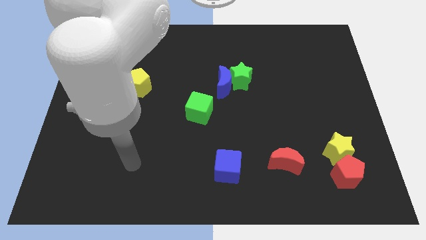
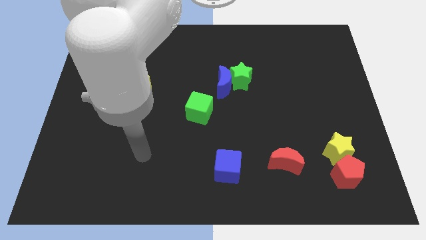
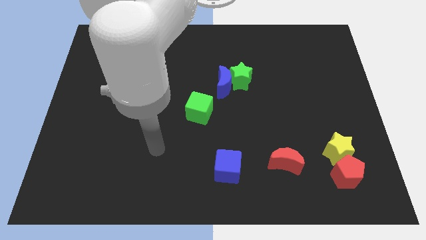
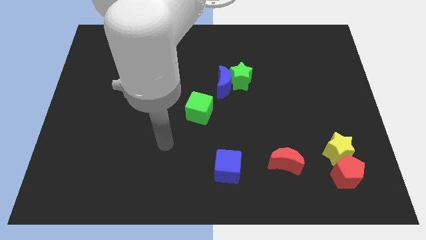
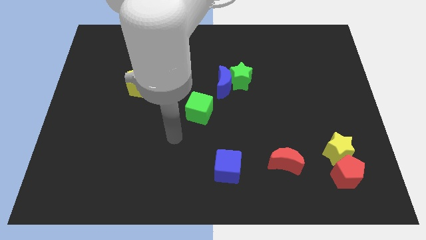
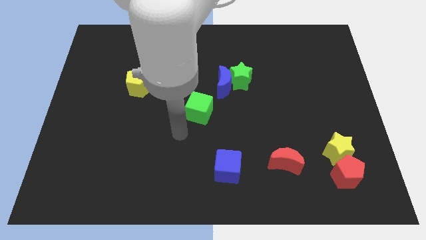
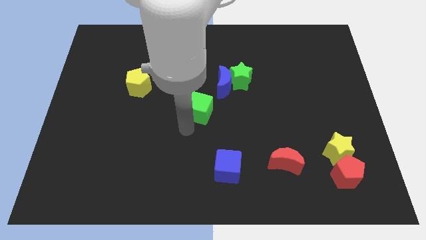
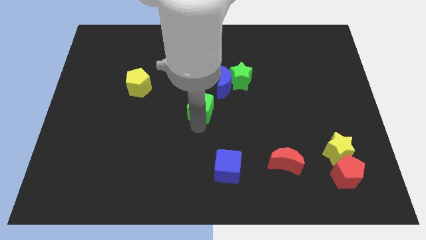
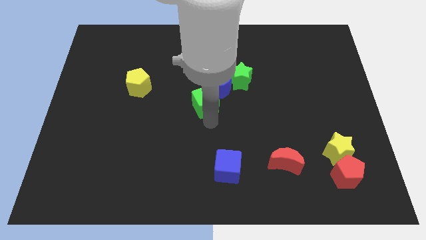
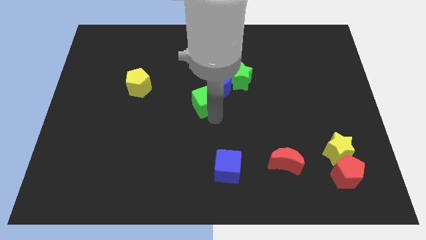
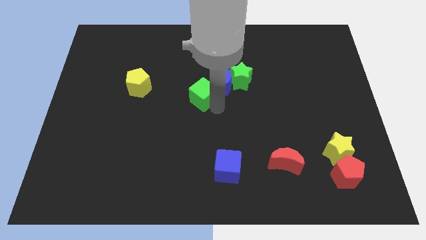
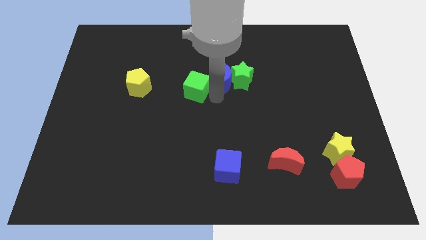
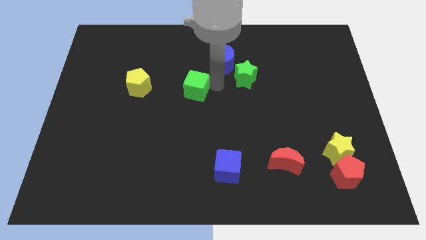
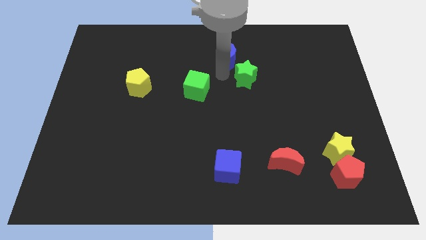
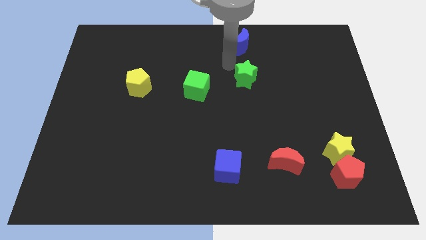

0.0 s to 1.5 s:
separate the green star from the blue moon

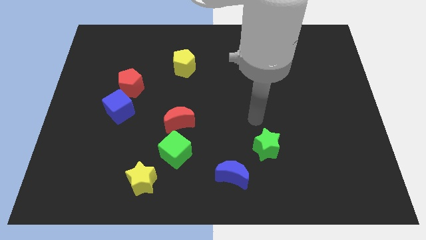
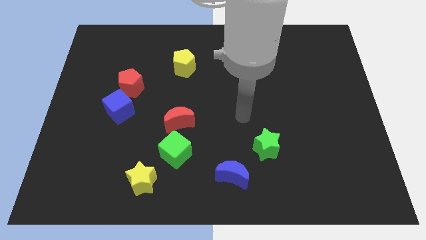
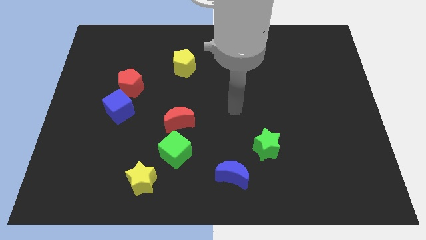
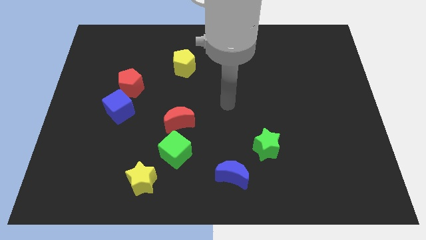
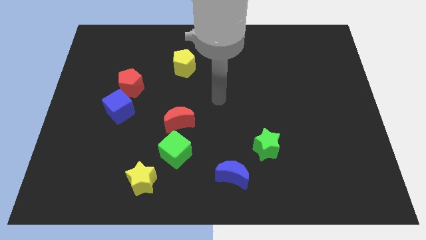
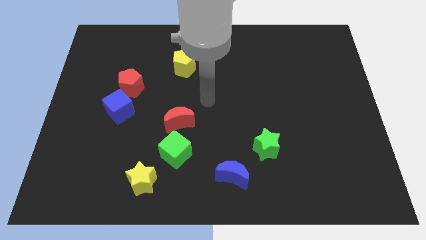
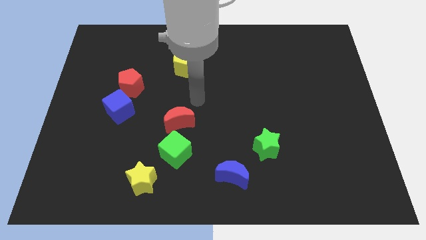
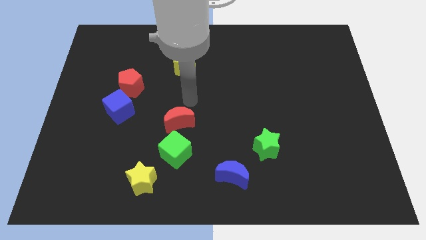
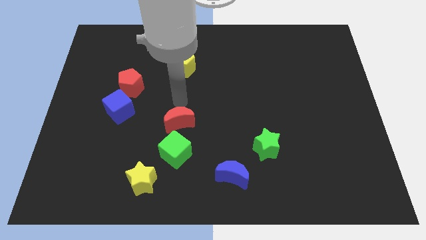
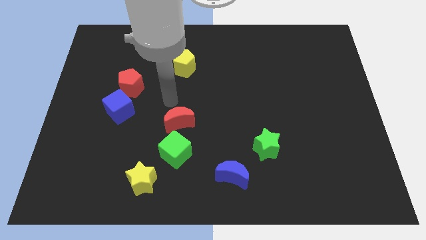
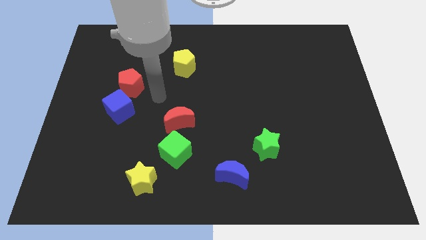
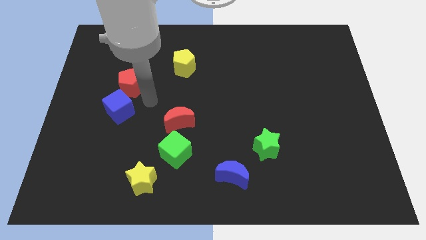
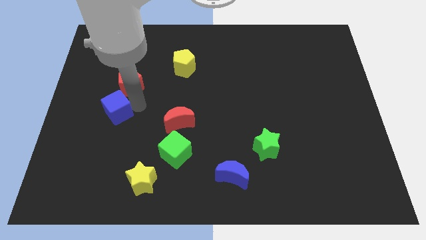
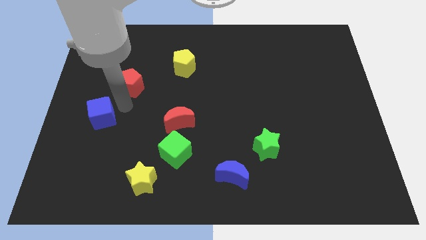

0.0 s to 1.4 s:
pull the red pentagon apart from the blue cube

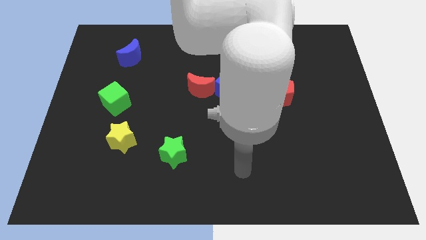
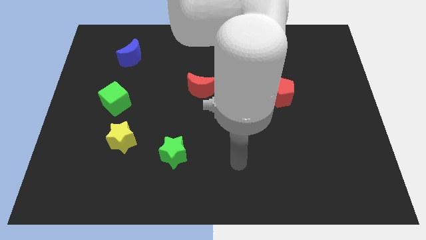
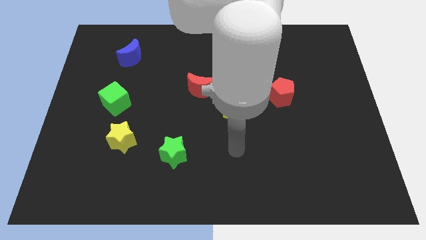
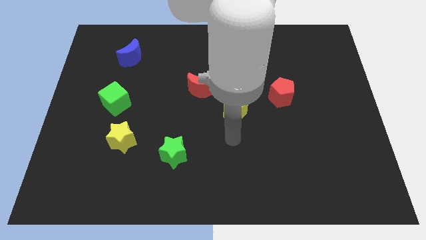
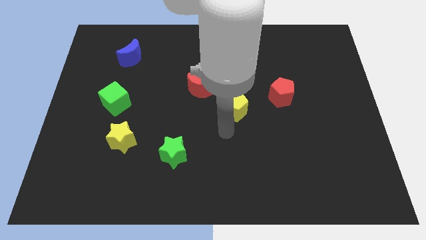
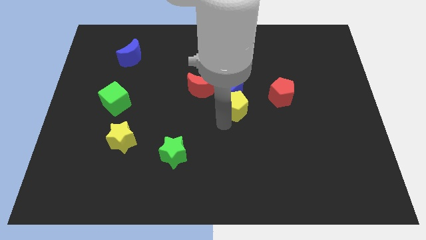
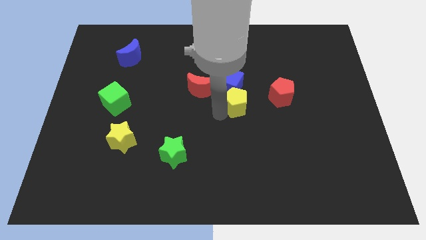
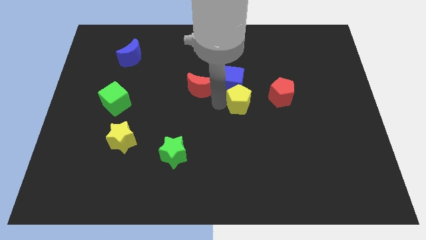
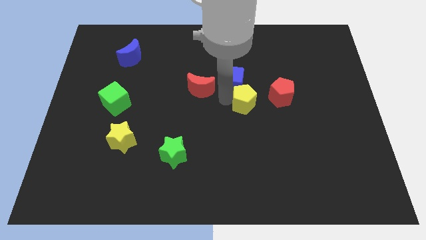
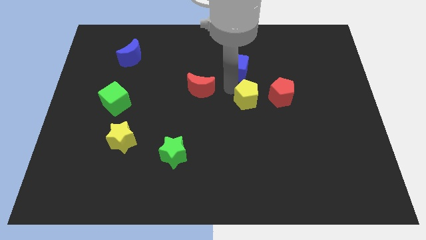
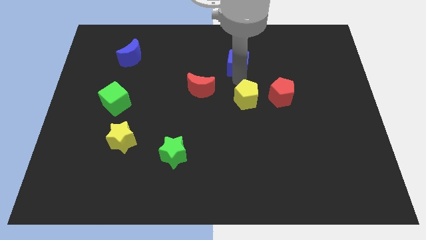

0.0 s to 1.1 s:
separate the yellow pentagon from the blue cube

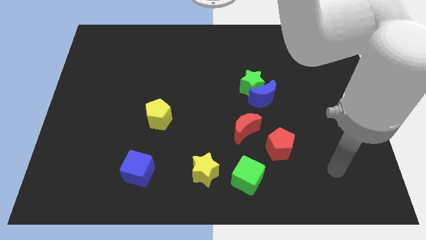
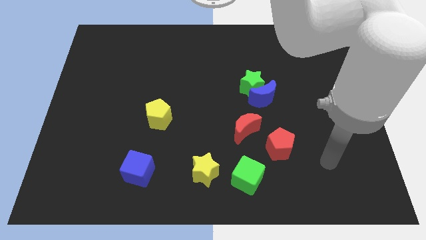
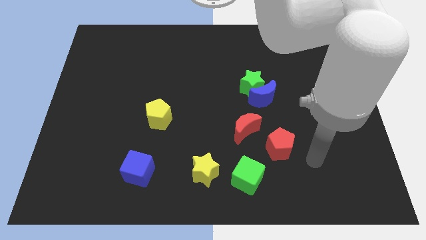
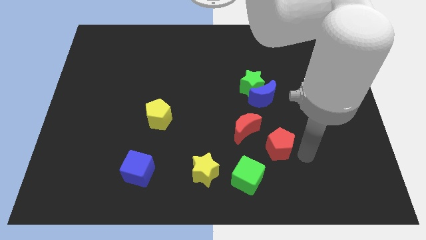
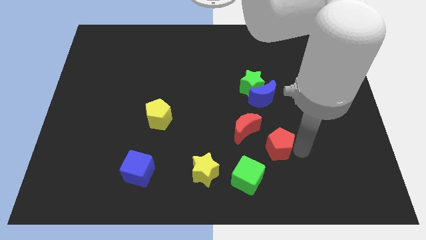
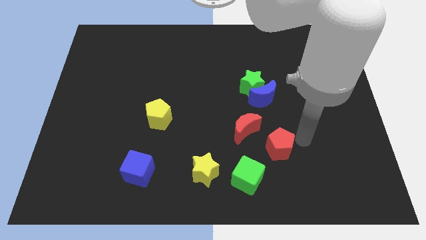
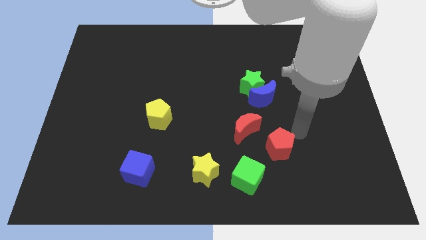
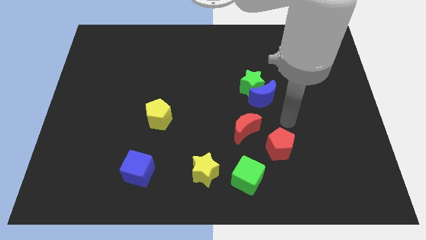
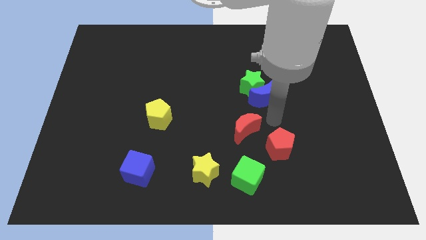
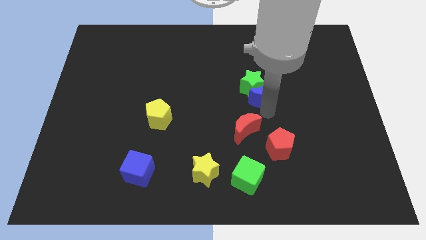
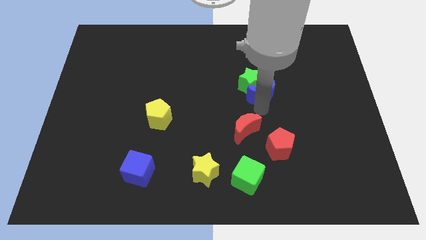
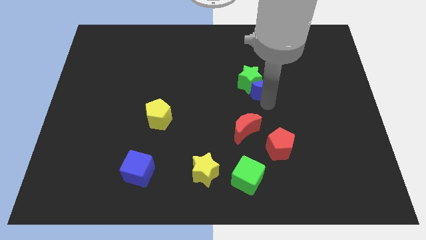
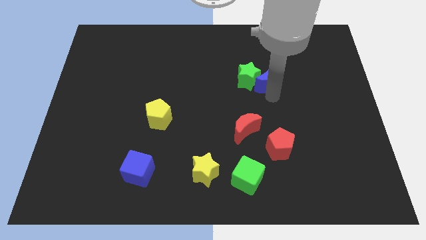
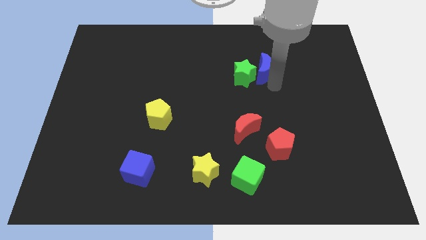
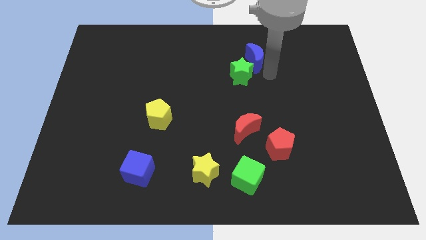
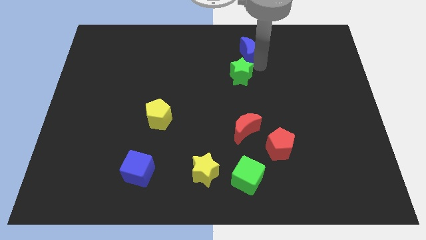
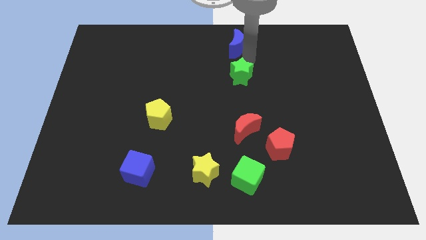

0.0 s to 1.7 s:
pull the green star apart from the blue moon

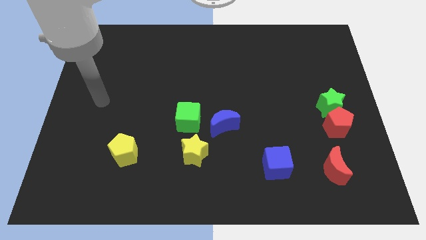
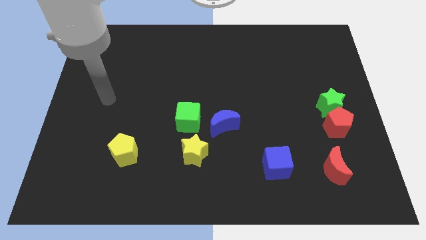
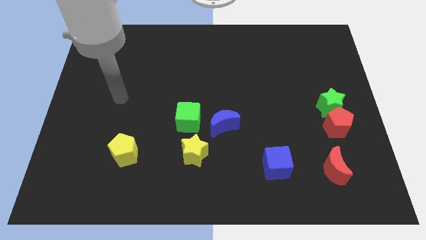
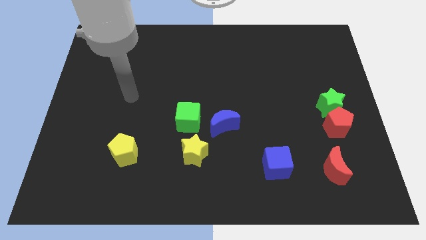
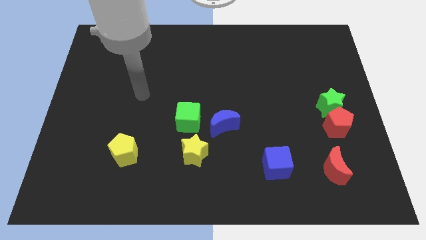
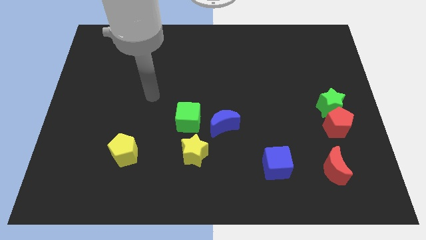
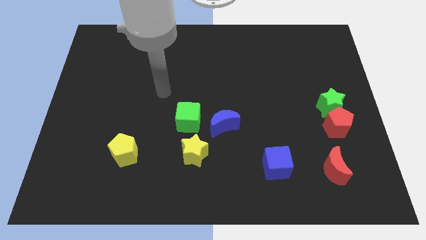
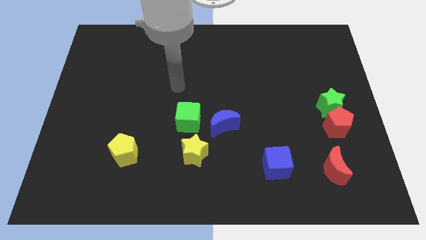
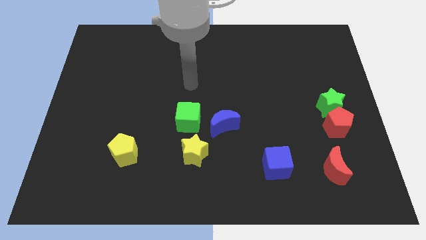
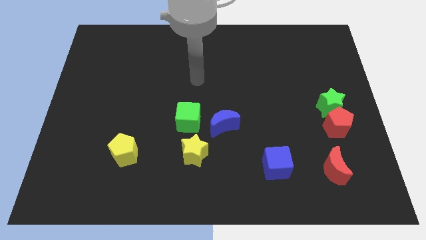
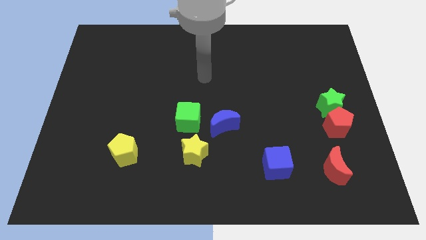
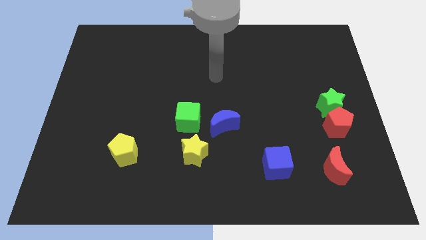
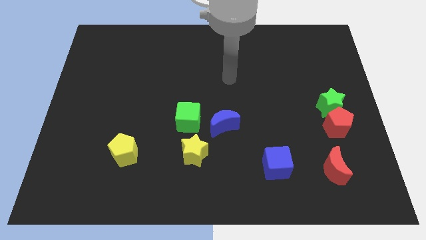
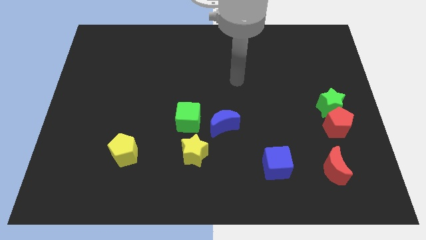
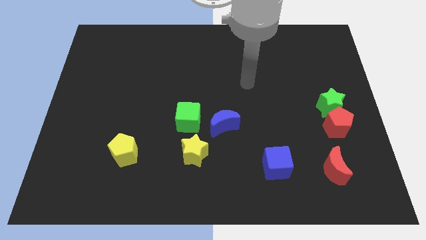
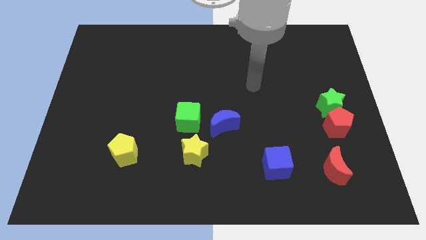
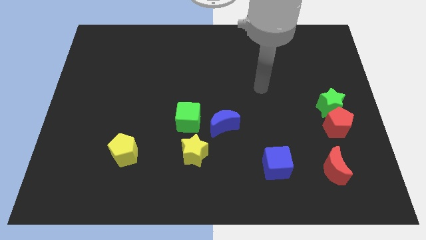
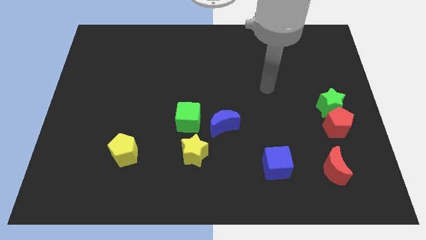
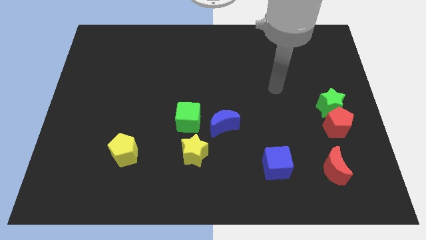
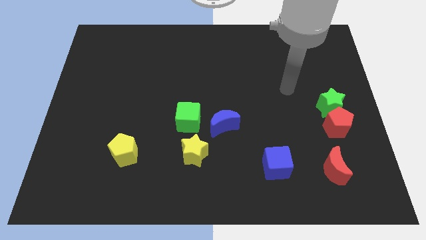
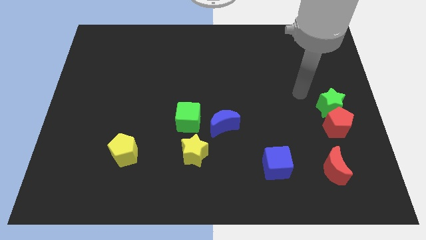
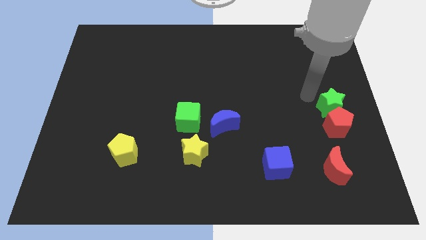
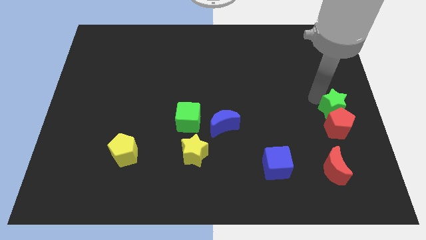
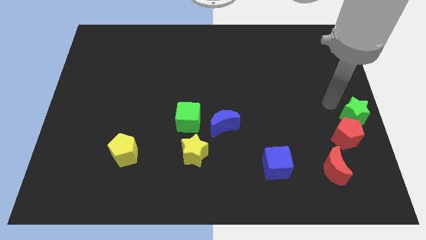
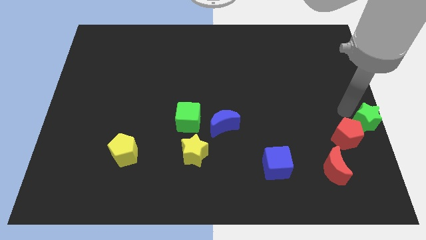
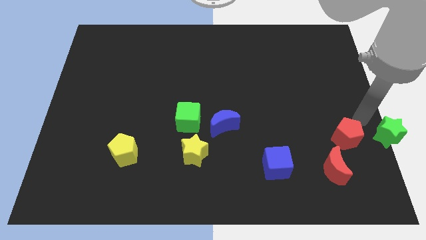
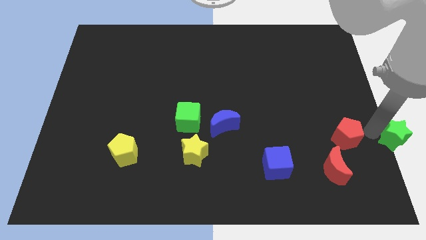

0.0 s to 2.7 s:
separate the red pentagon from the green star

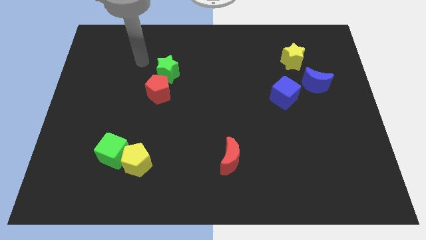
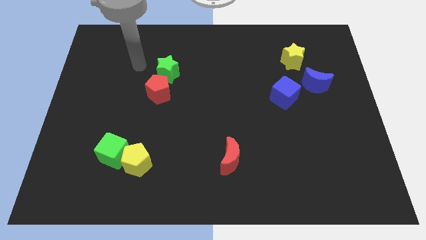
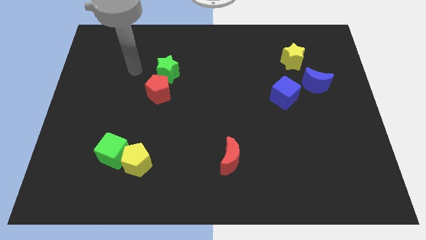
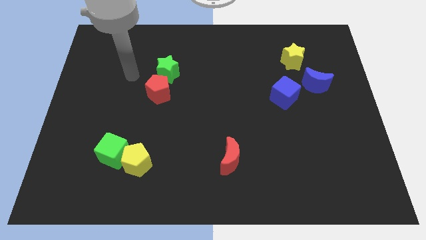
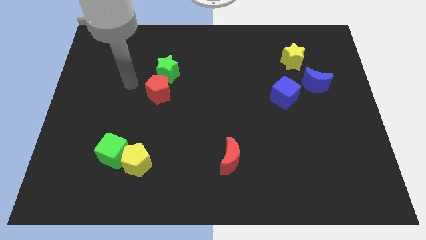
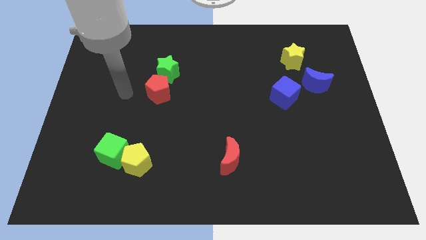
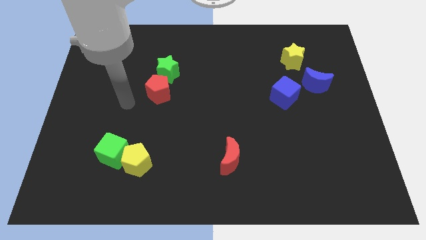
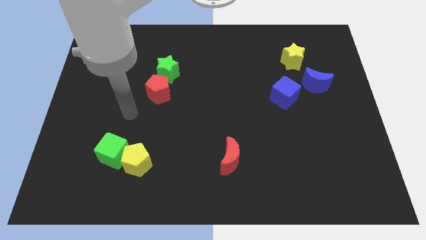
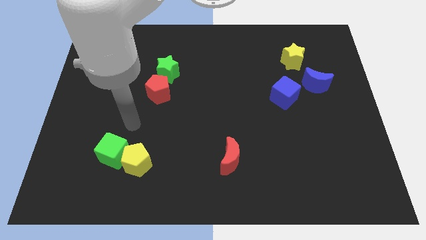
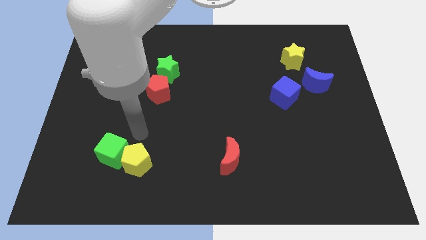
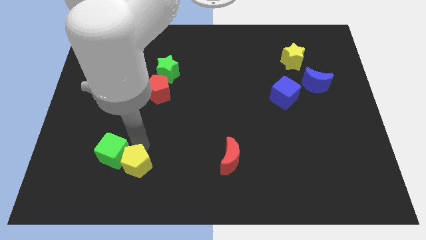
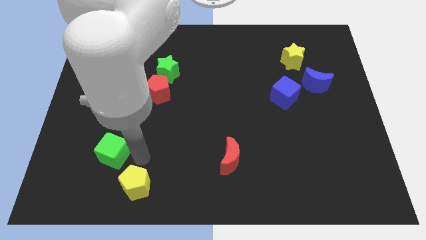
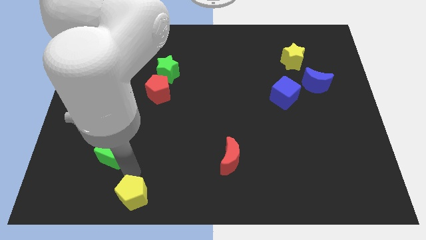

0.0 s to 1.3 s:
separate the green cube from the yellow pentagon
